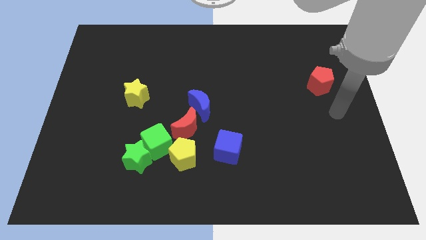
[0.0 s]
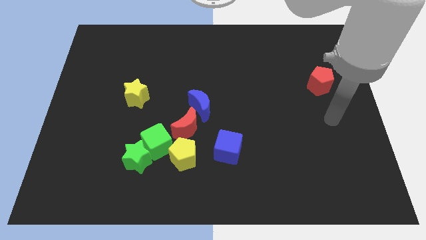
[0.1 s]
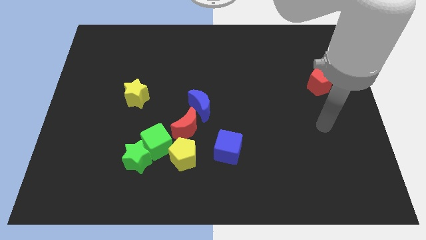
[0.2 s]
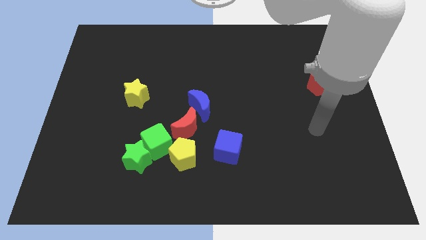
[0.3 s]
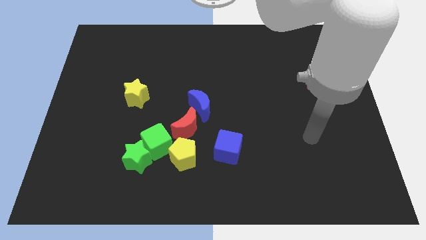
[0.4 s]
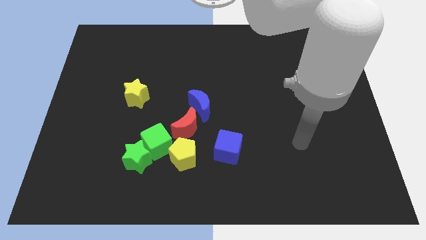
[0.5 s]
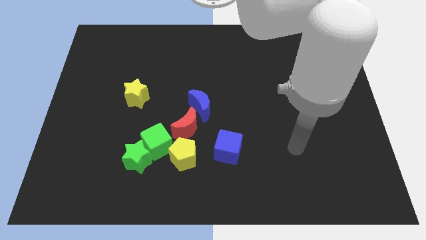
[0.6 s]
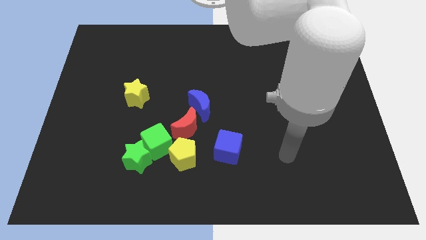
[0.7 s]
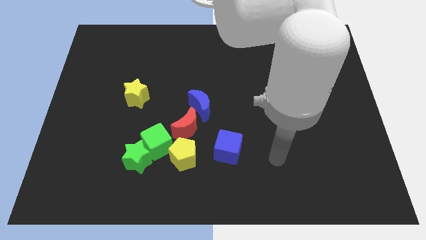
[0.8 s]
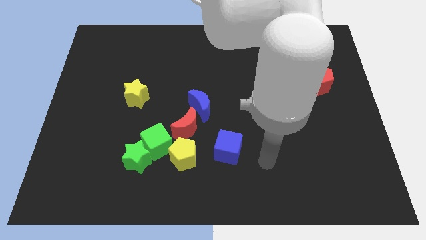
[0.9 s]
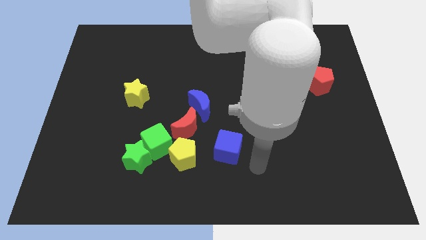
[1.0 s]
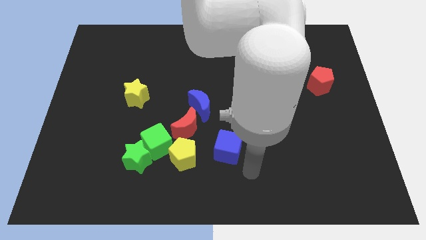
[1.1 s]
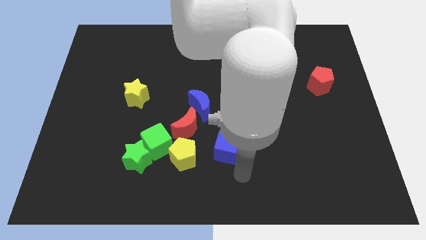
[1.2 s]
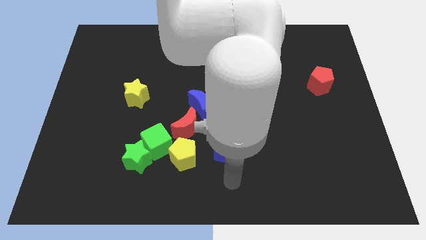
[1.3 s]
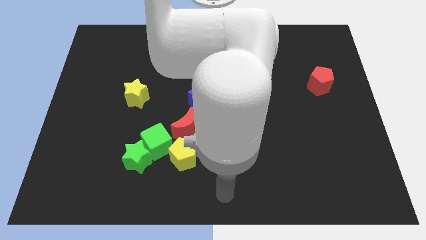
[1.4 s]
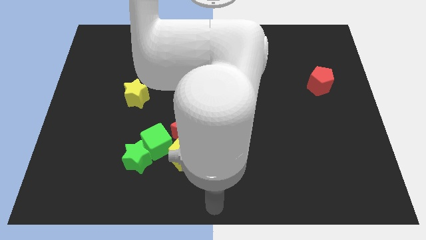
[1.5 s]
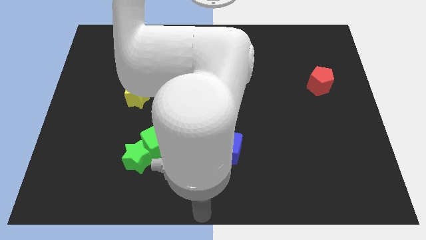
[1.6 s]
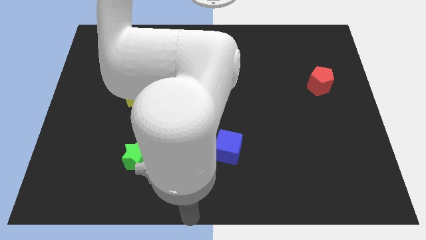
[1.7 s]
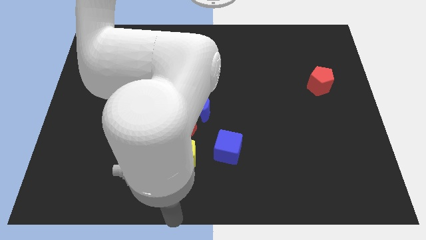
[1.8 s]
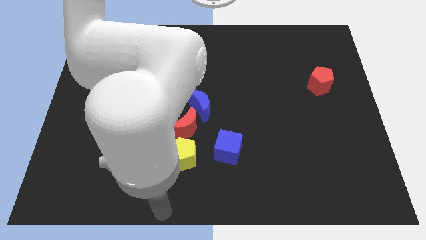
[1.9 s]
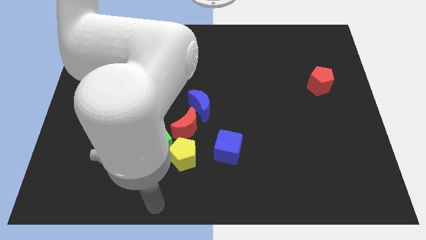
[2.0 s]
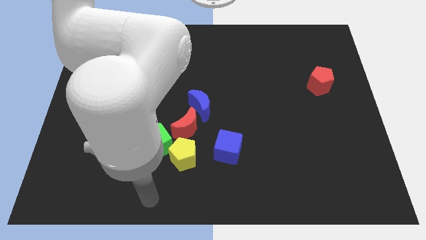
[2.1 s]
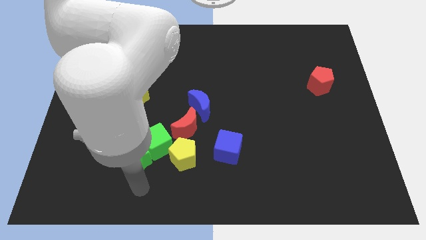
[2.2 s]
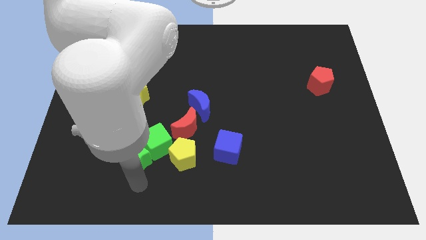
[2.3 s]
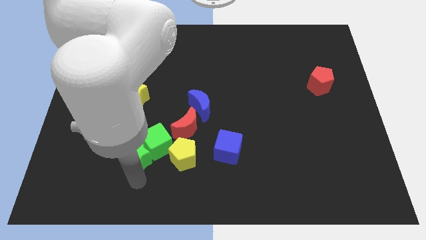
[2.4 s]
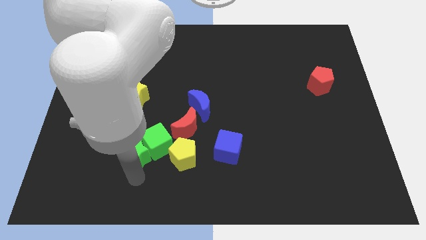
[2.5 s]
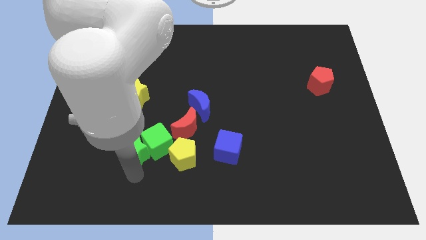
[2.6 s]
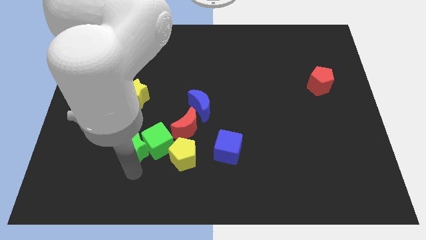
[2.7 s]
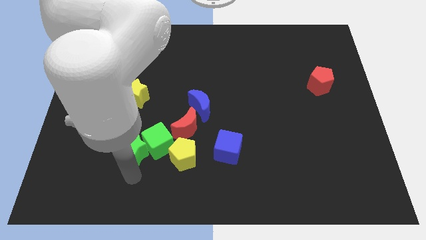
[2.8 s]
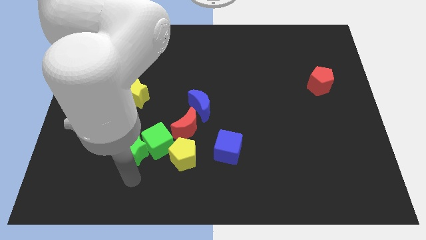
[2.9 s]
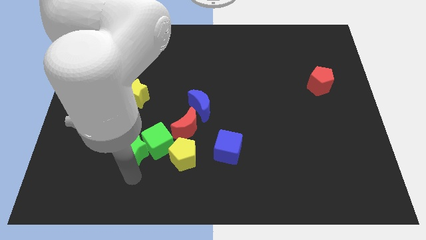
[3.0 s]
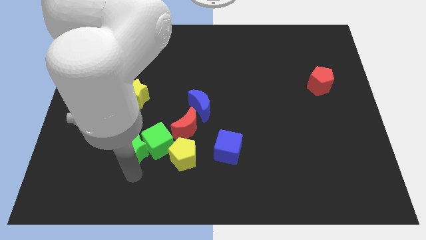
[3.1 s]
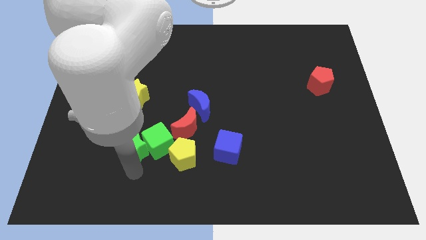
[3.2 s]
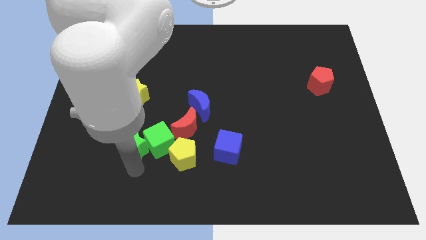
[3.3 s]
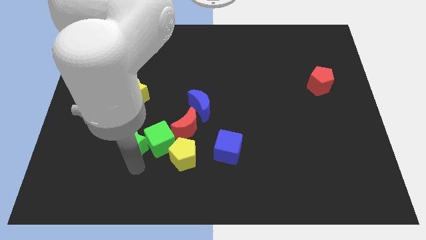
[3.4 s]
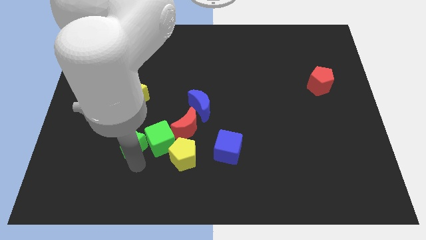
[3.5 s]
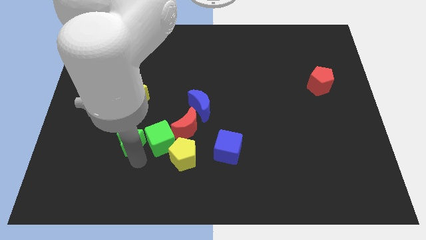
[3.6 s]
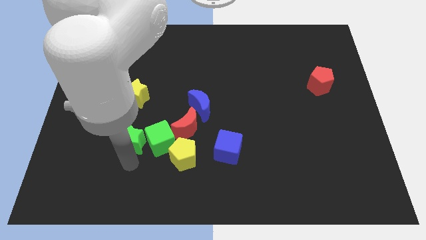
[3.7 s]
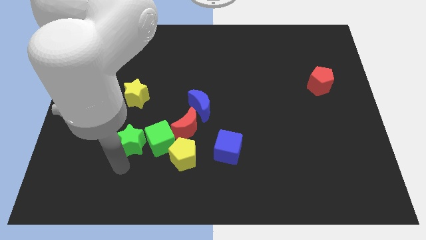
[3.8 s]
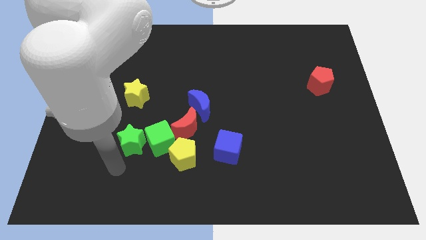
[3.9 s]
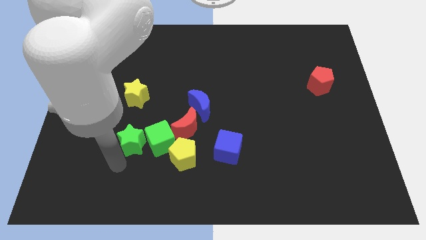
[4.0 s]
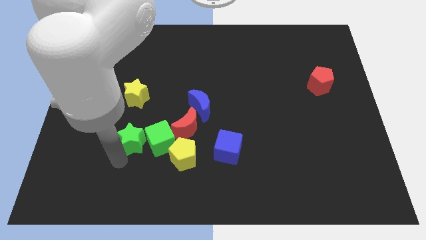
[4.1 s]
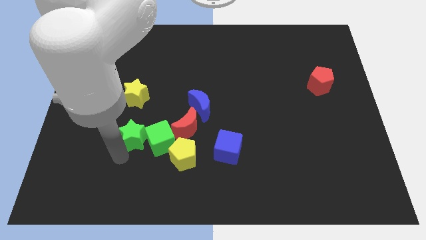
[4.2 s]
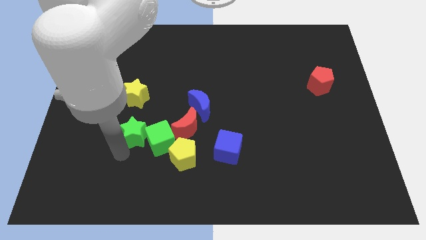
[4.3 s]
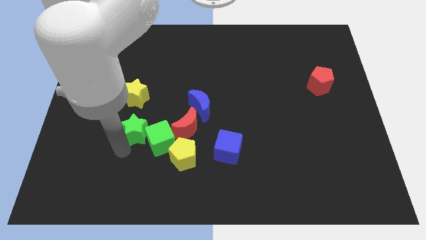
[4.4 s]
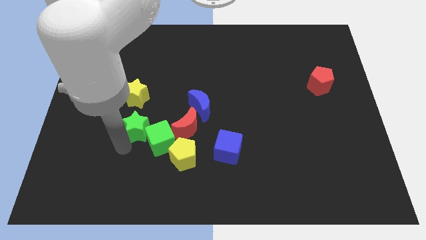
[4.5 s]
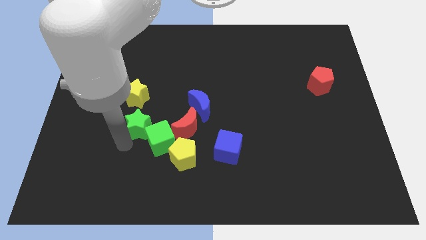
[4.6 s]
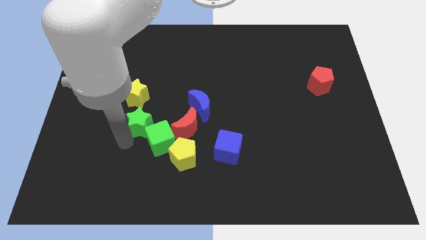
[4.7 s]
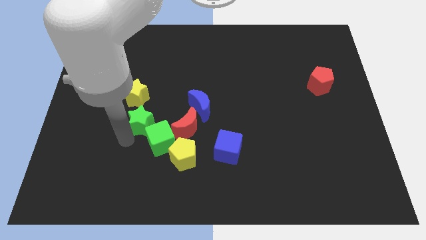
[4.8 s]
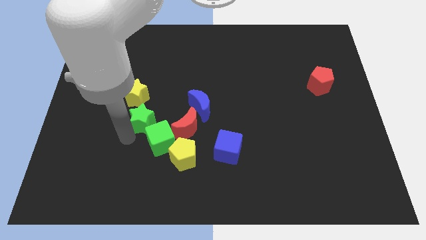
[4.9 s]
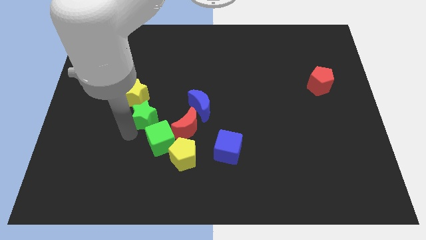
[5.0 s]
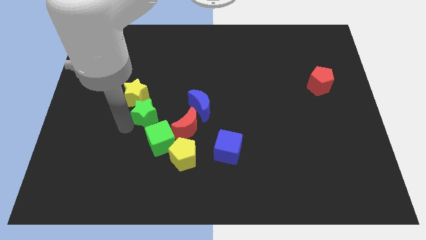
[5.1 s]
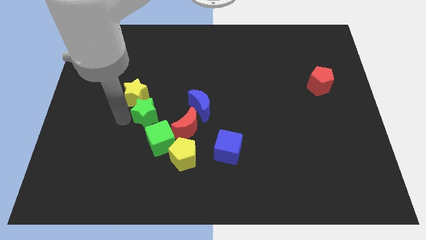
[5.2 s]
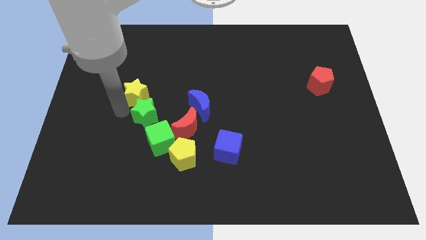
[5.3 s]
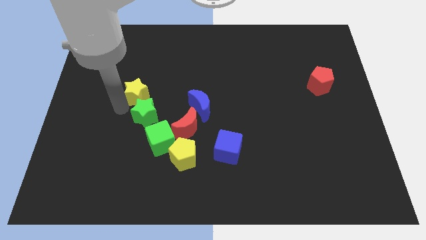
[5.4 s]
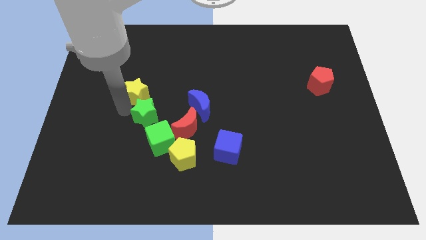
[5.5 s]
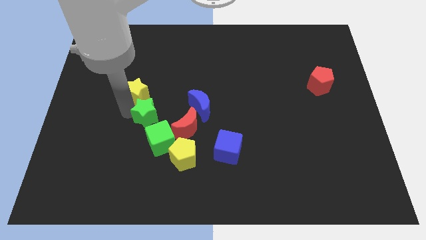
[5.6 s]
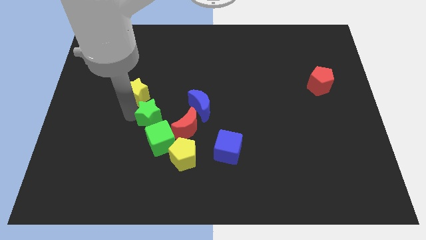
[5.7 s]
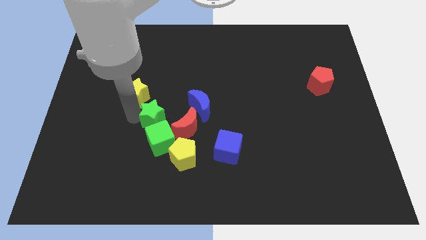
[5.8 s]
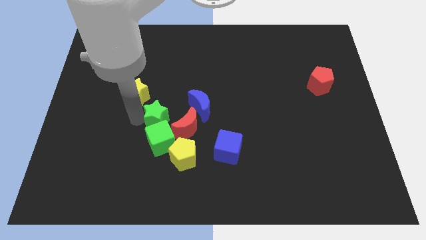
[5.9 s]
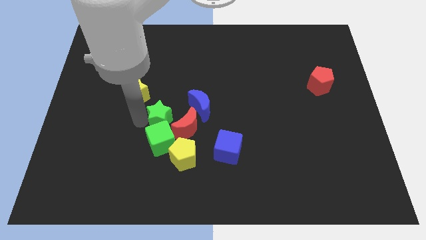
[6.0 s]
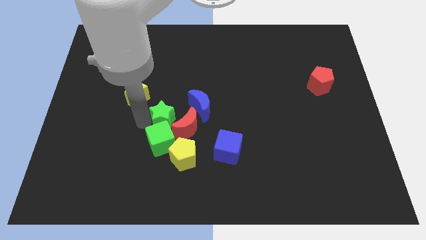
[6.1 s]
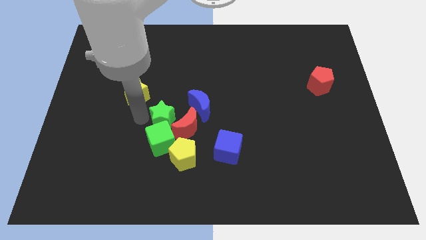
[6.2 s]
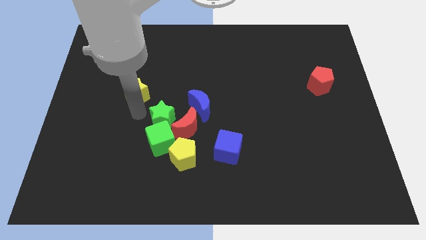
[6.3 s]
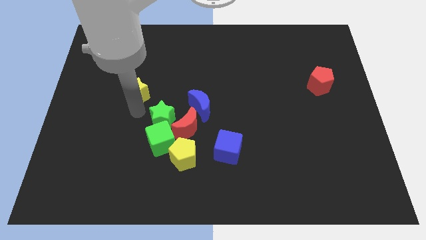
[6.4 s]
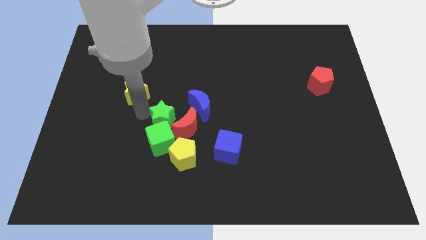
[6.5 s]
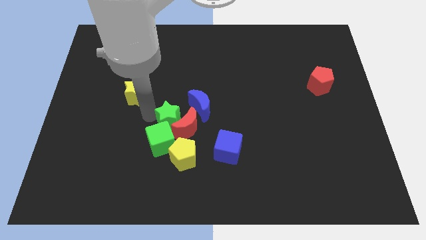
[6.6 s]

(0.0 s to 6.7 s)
slide the green star next to the red moon

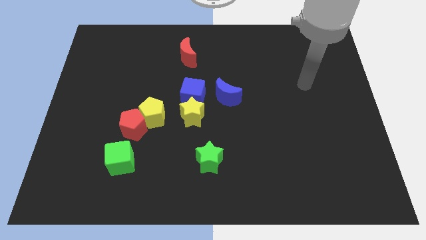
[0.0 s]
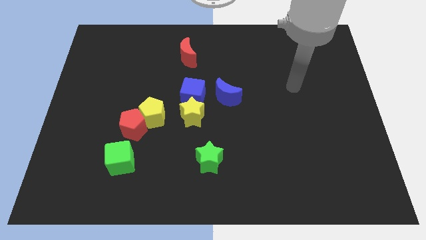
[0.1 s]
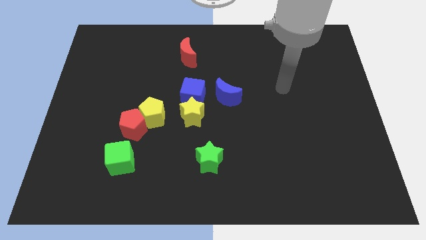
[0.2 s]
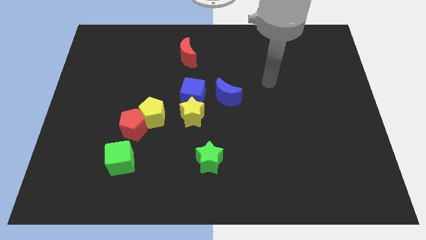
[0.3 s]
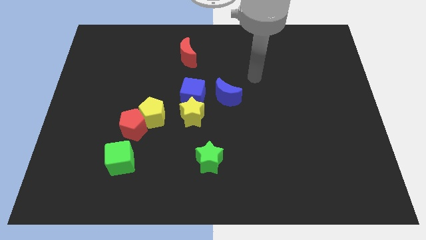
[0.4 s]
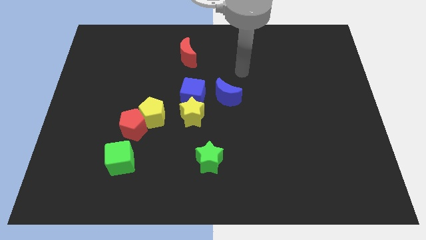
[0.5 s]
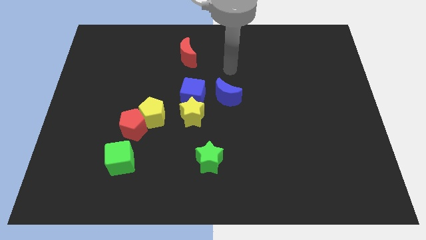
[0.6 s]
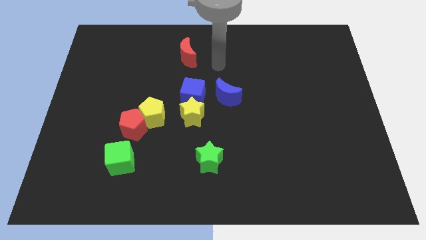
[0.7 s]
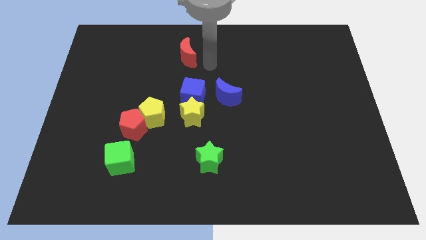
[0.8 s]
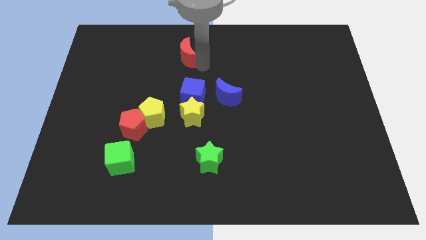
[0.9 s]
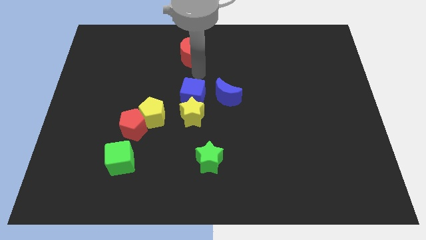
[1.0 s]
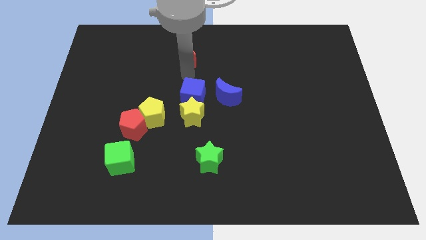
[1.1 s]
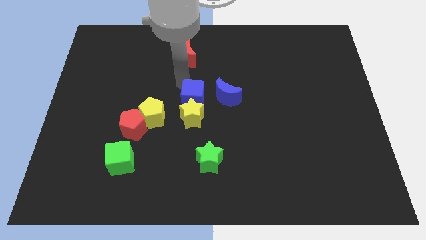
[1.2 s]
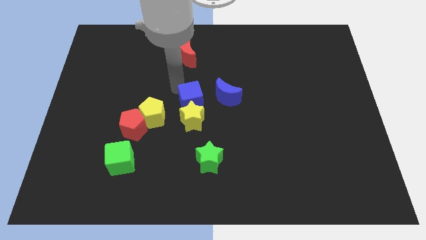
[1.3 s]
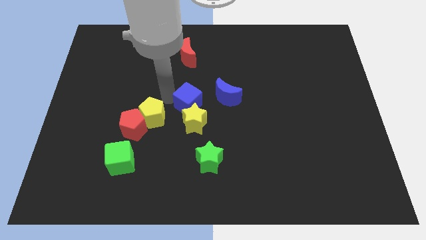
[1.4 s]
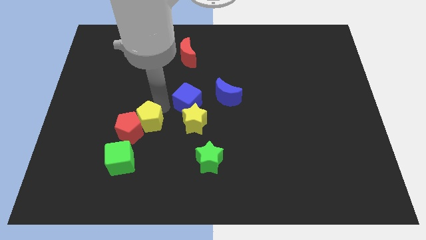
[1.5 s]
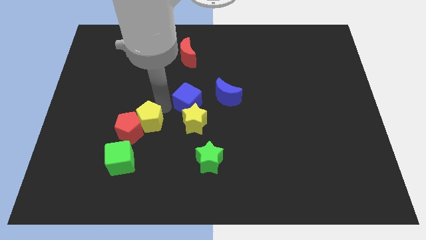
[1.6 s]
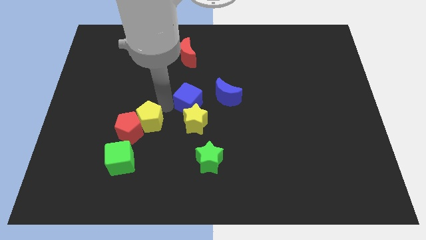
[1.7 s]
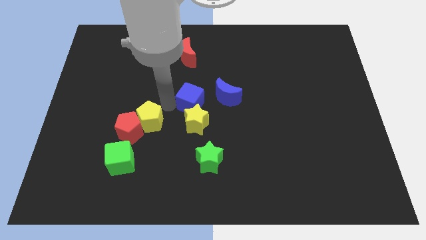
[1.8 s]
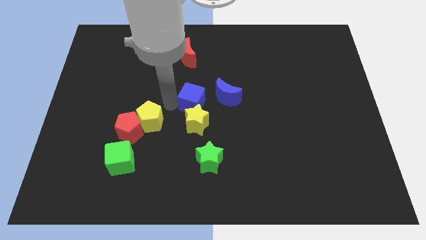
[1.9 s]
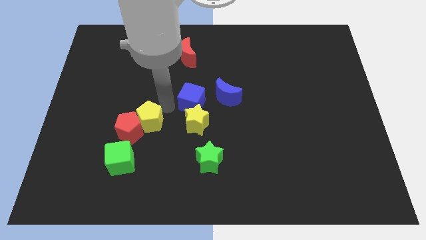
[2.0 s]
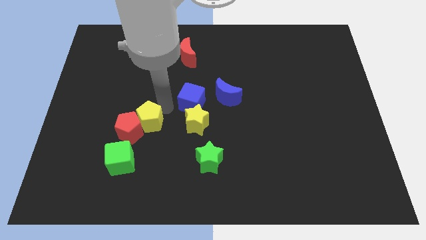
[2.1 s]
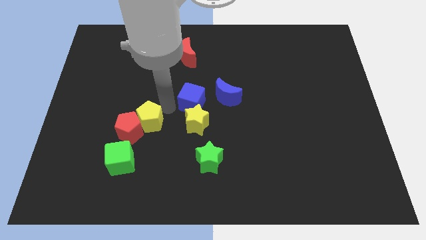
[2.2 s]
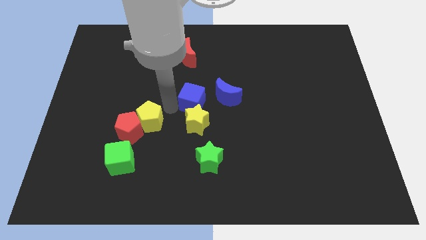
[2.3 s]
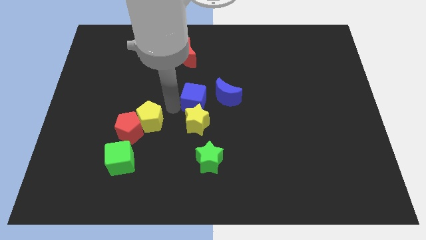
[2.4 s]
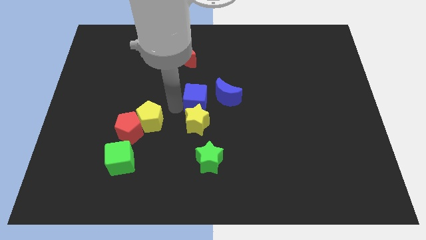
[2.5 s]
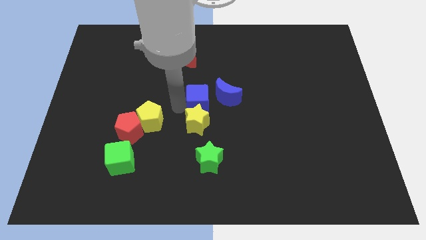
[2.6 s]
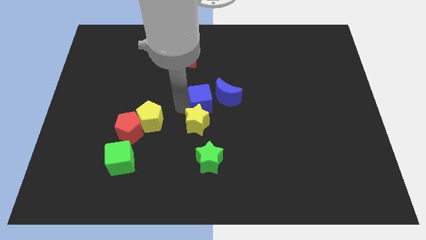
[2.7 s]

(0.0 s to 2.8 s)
put the blue cube towards the blue moon
